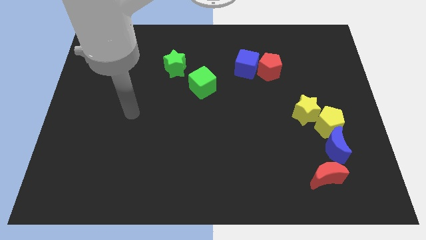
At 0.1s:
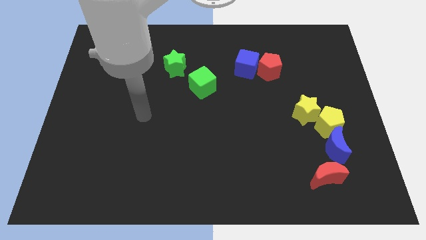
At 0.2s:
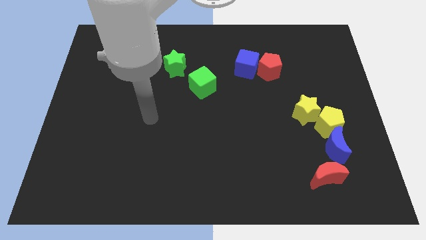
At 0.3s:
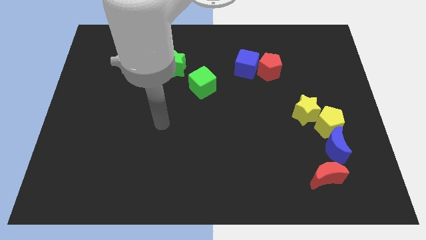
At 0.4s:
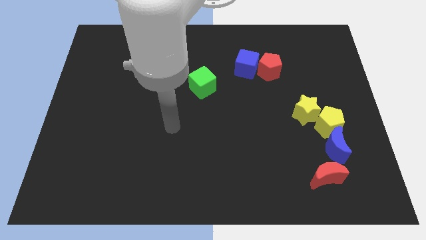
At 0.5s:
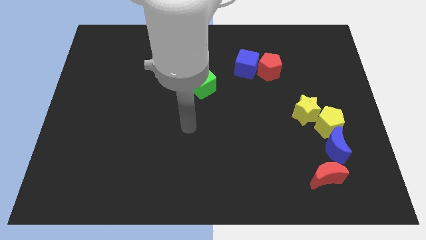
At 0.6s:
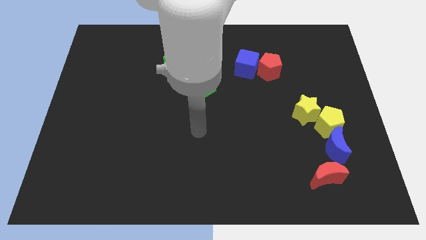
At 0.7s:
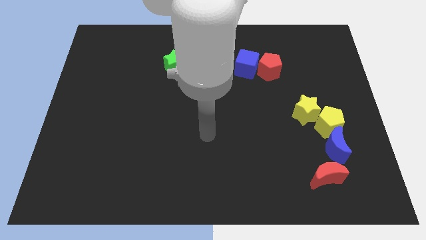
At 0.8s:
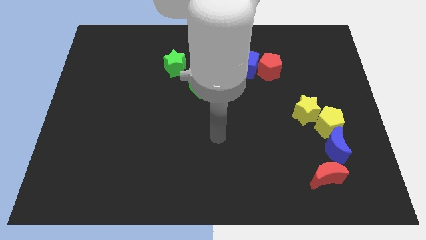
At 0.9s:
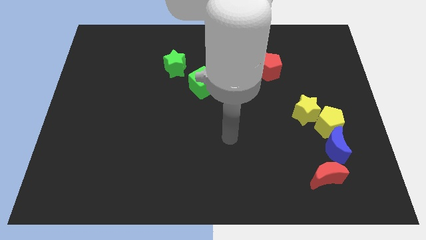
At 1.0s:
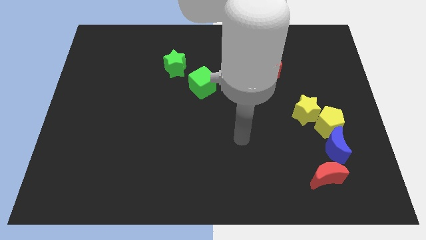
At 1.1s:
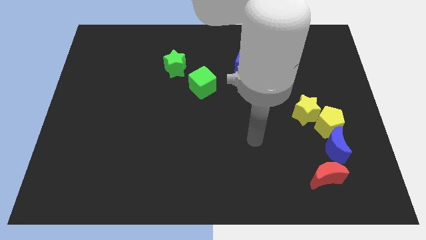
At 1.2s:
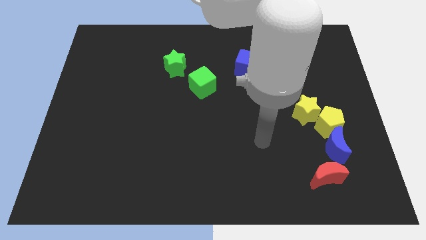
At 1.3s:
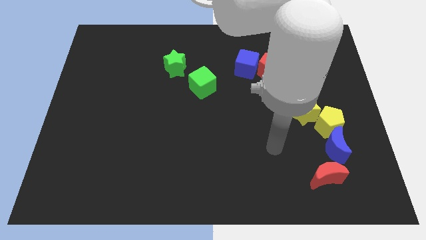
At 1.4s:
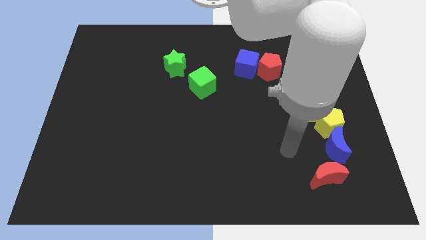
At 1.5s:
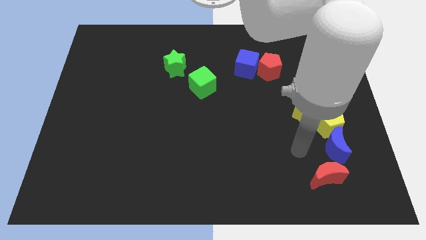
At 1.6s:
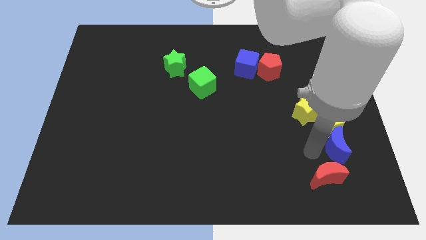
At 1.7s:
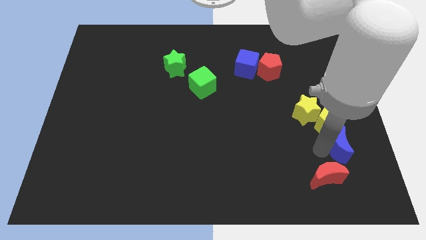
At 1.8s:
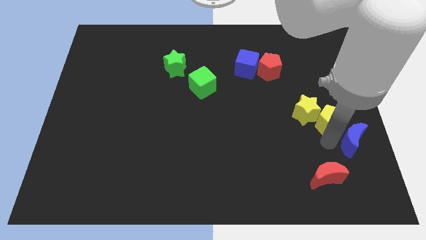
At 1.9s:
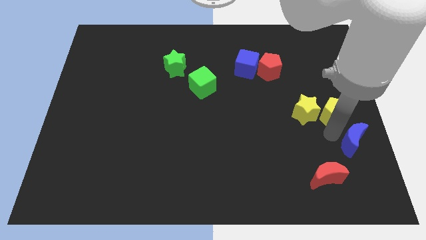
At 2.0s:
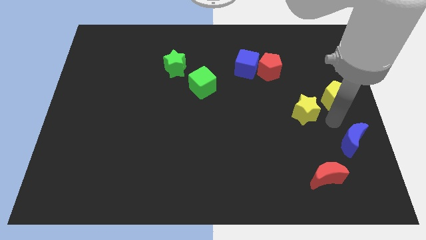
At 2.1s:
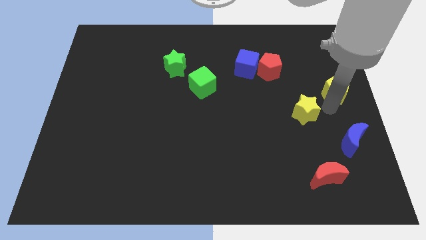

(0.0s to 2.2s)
move the yellow star away from the yellow pentagon

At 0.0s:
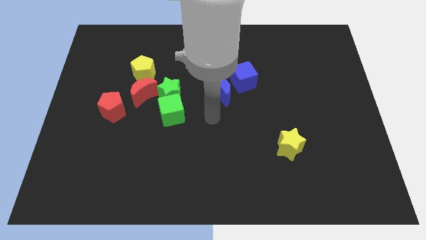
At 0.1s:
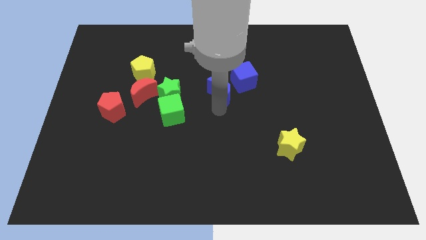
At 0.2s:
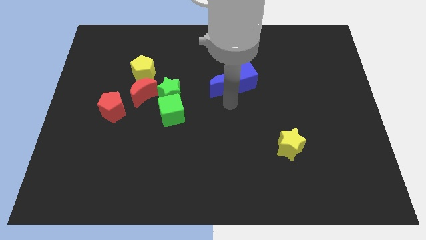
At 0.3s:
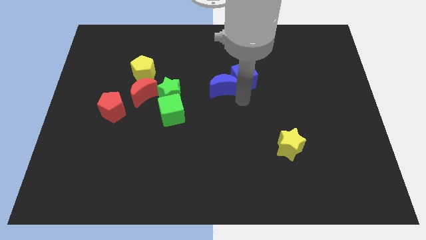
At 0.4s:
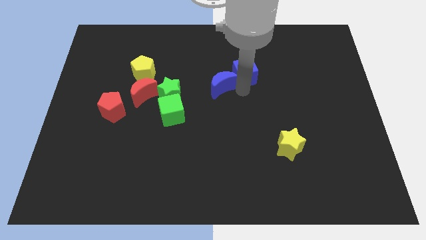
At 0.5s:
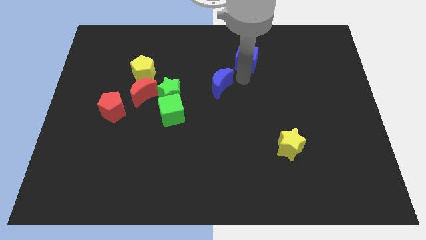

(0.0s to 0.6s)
move the blue moon away from the blue cube

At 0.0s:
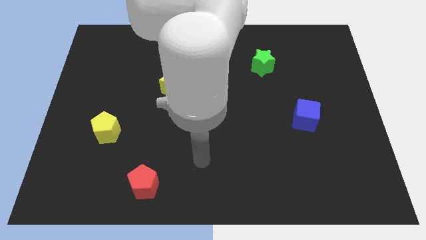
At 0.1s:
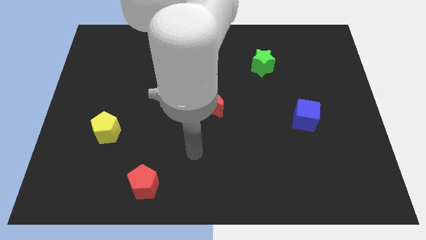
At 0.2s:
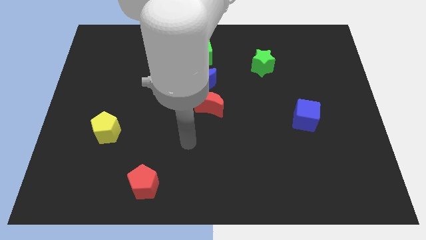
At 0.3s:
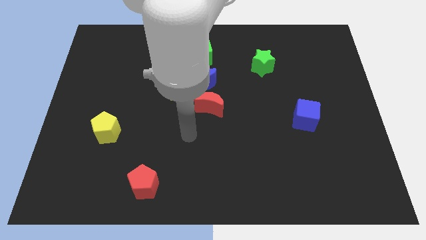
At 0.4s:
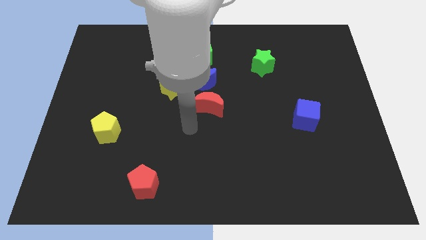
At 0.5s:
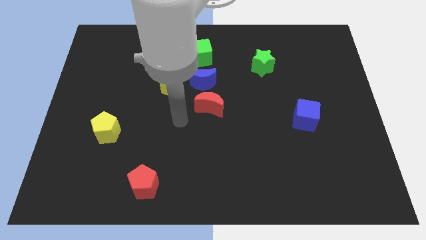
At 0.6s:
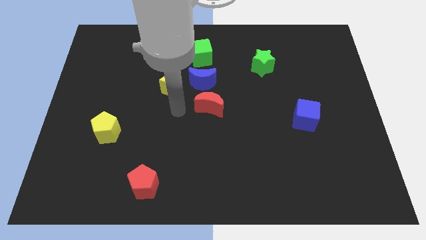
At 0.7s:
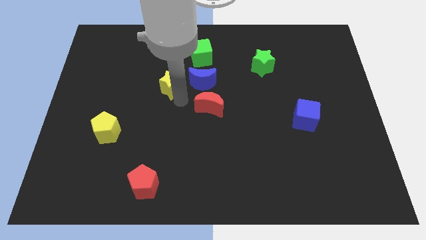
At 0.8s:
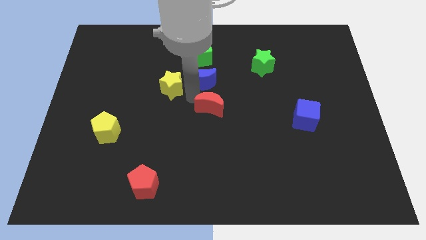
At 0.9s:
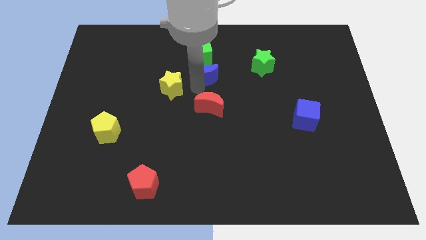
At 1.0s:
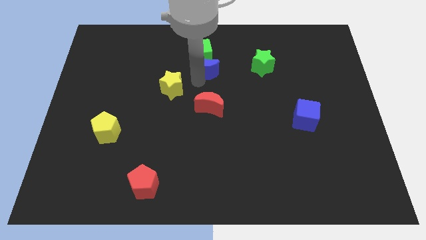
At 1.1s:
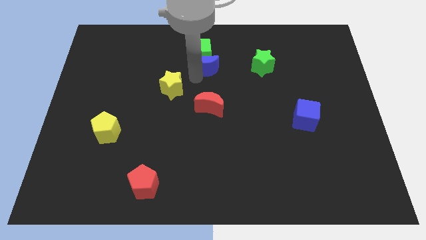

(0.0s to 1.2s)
move the yellow star away from the blue moon

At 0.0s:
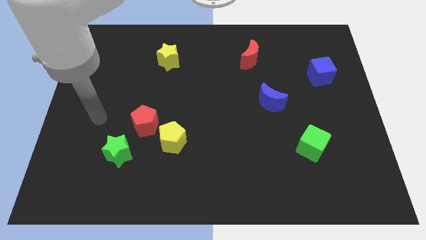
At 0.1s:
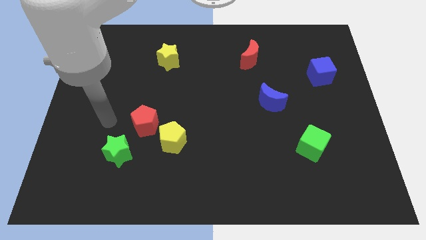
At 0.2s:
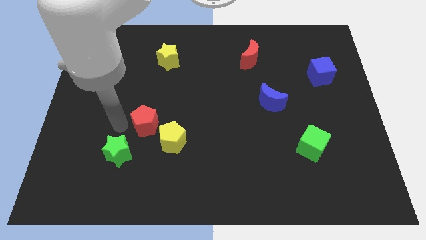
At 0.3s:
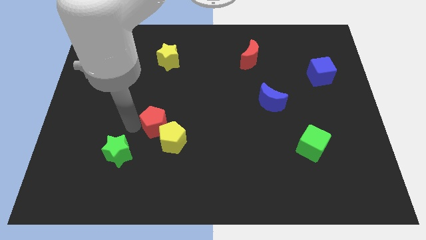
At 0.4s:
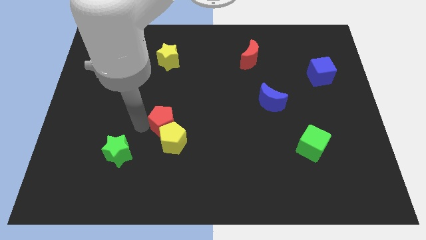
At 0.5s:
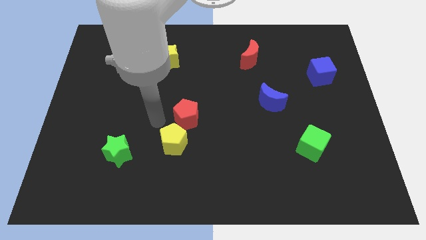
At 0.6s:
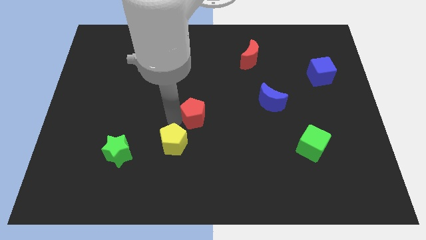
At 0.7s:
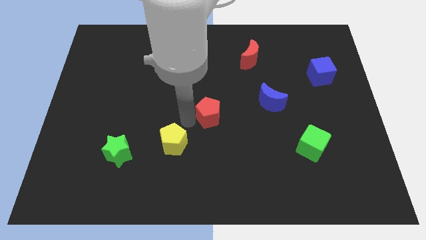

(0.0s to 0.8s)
move the yellow pentagon away from the red pentagon

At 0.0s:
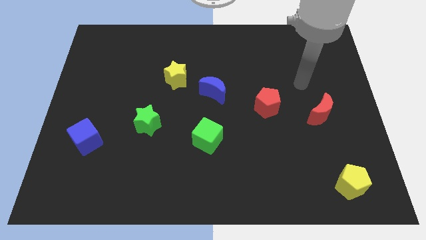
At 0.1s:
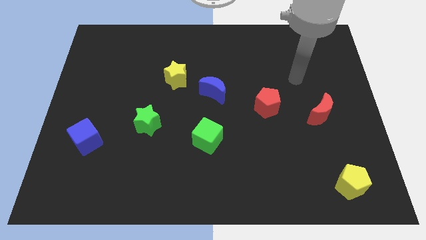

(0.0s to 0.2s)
pull the blue moon apart from the yellow star

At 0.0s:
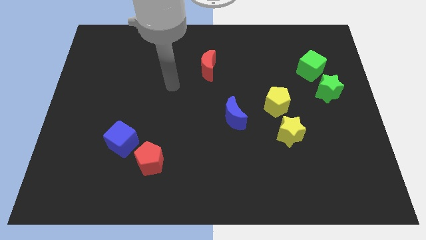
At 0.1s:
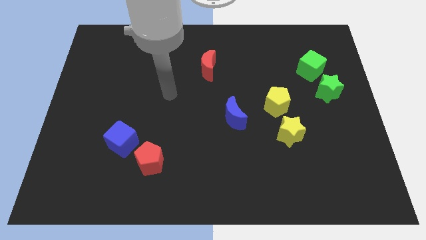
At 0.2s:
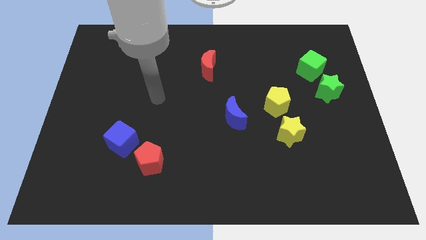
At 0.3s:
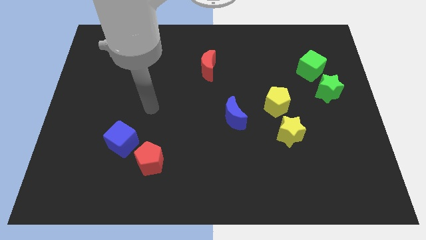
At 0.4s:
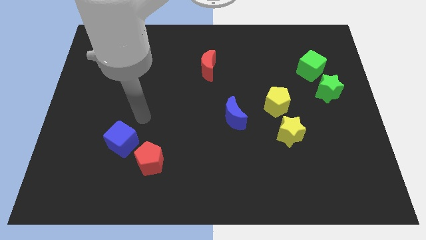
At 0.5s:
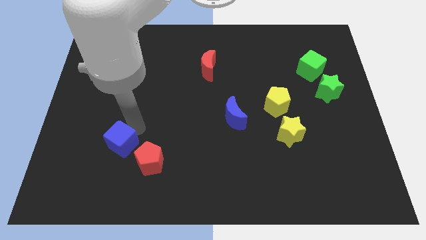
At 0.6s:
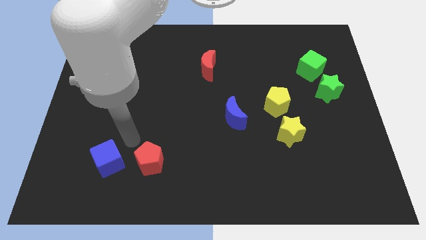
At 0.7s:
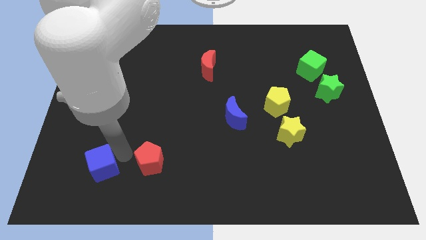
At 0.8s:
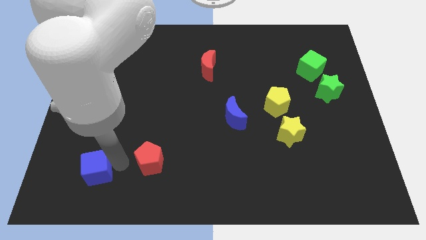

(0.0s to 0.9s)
move the red pentagon away from the blue cube

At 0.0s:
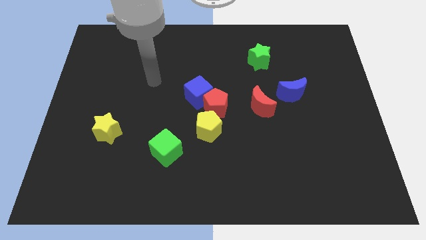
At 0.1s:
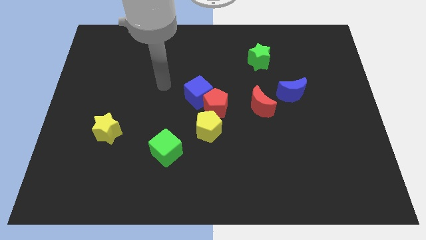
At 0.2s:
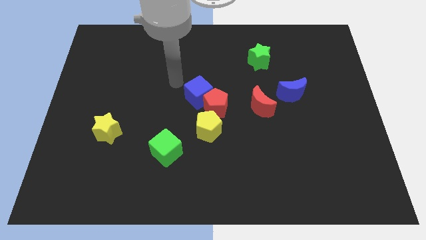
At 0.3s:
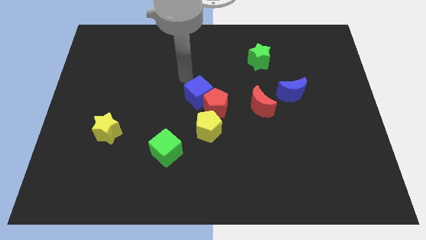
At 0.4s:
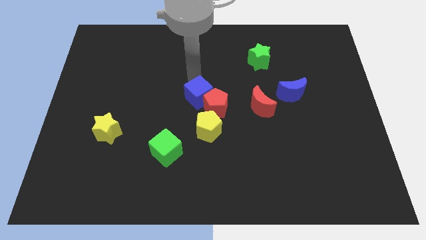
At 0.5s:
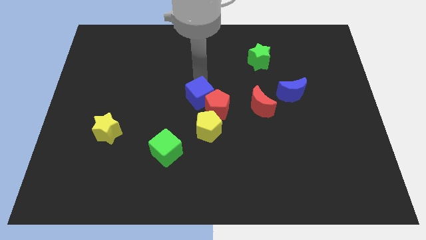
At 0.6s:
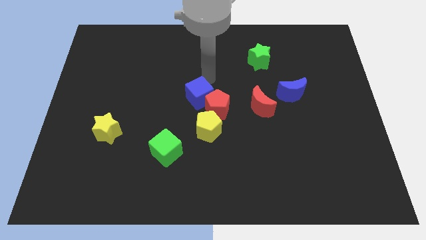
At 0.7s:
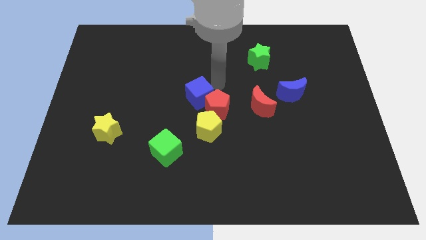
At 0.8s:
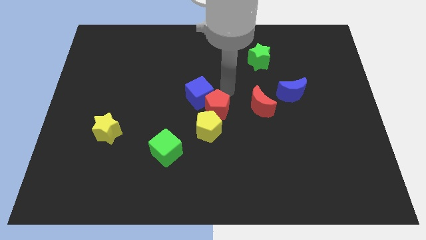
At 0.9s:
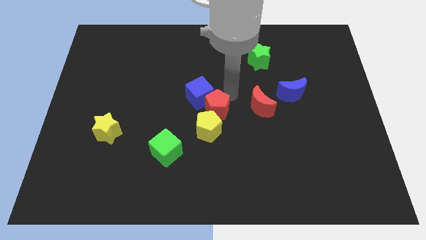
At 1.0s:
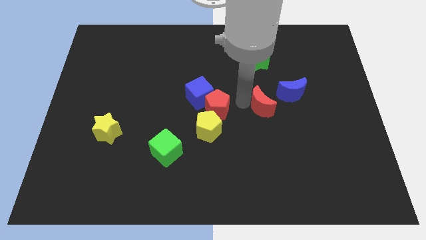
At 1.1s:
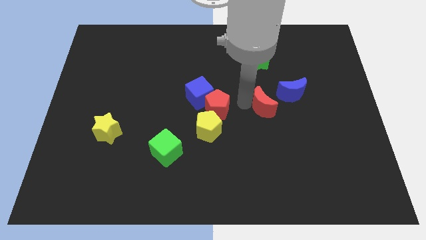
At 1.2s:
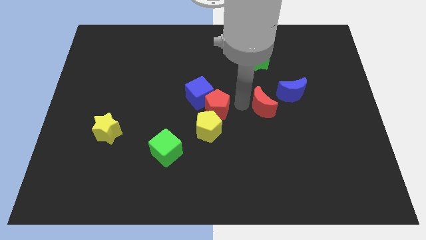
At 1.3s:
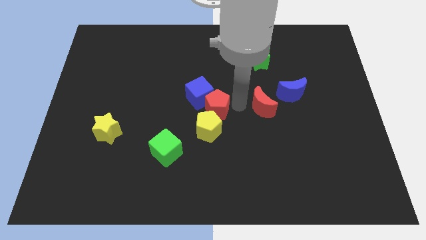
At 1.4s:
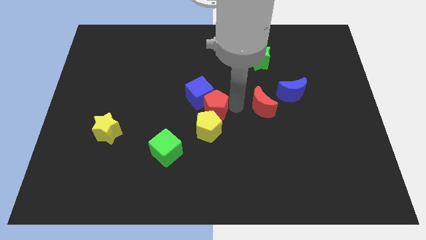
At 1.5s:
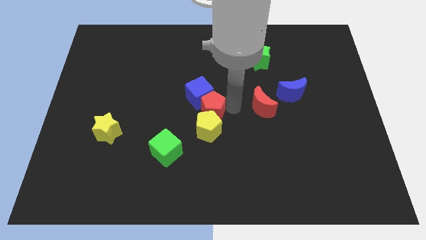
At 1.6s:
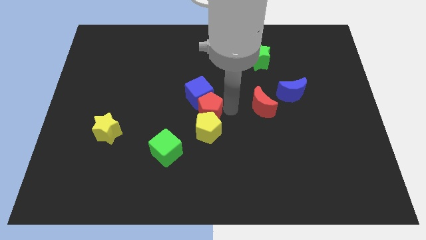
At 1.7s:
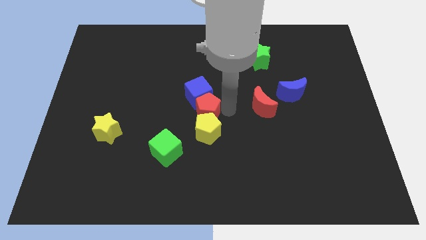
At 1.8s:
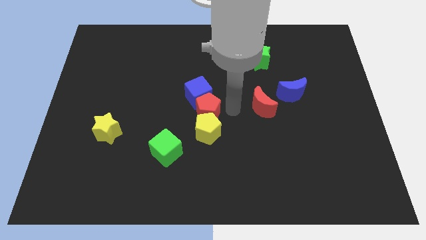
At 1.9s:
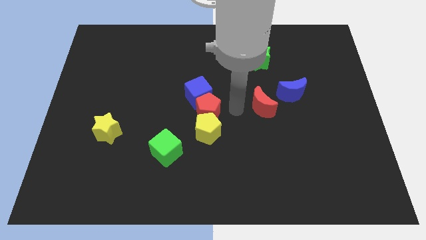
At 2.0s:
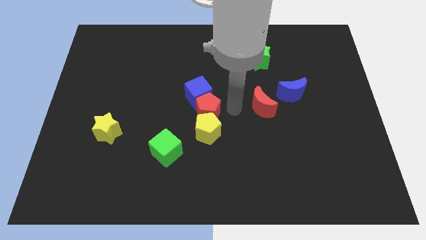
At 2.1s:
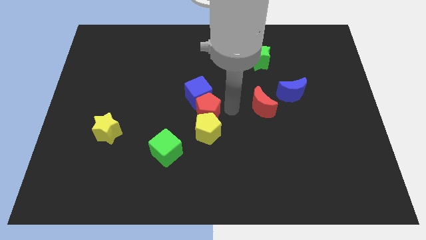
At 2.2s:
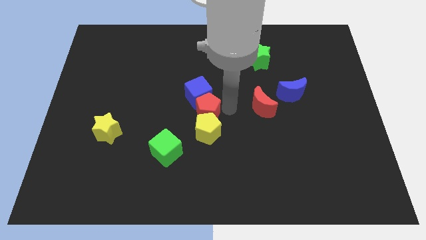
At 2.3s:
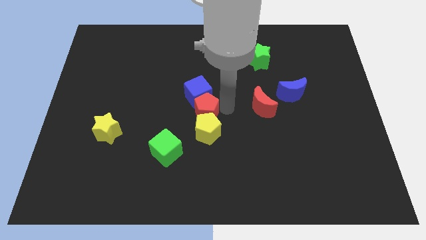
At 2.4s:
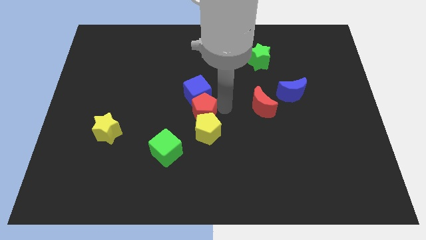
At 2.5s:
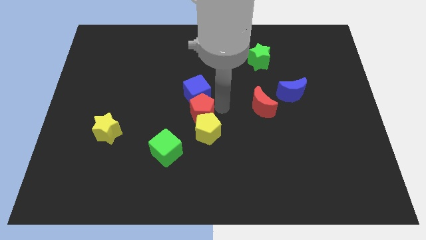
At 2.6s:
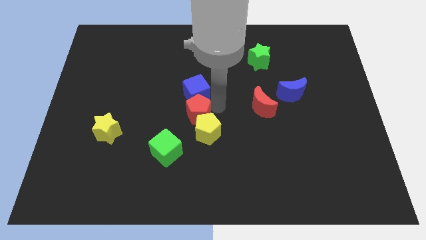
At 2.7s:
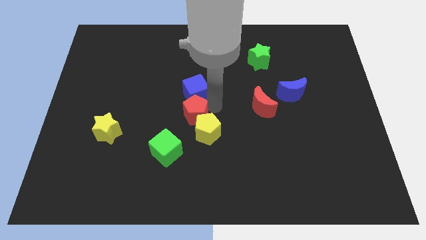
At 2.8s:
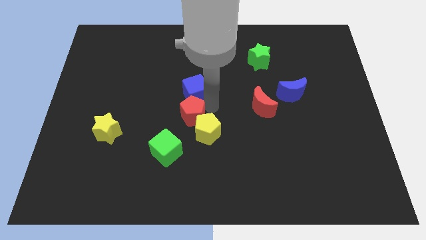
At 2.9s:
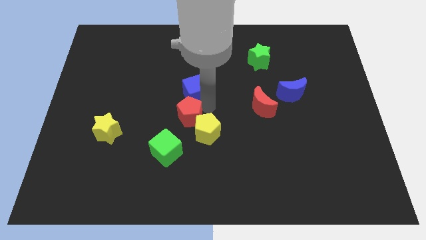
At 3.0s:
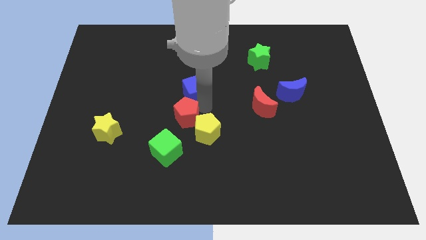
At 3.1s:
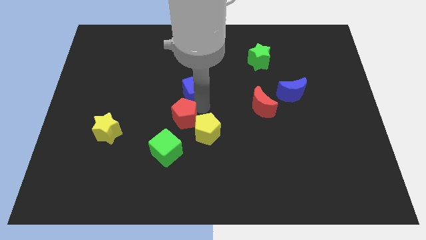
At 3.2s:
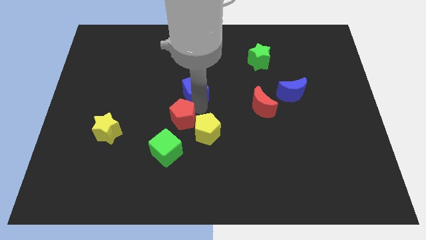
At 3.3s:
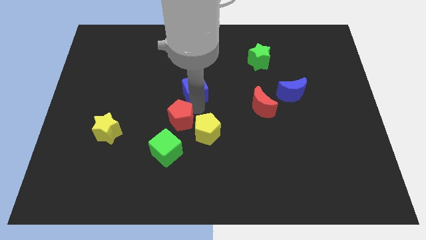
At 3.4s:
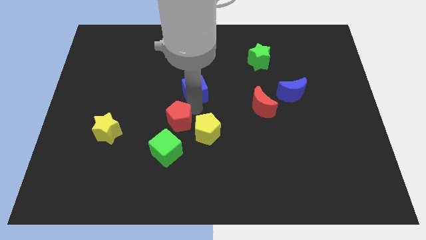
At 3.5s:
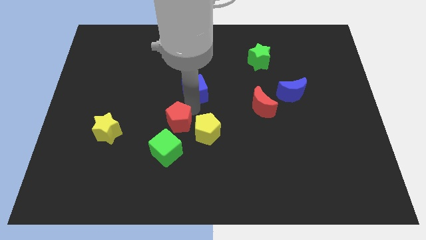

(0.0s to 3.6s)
separate the red pentagon from the group

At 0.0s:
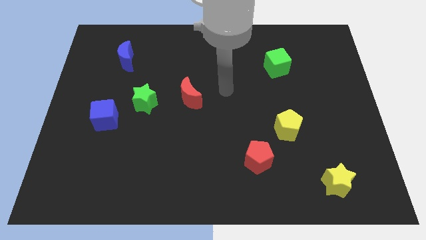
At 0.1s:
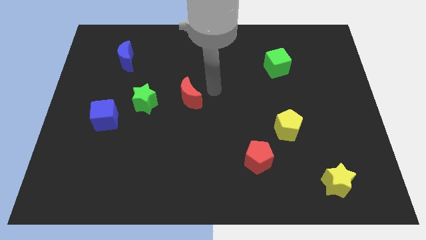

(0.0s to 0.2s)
move the blue cube away from the green star
